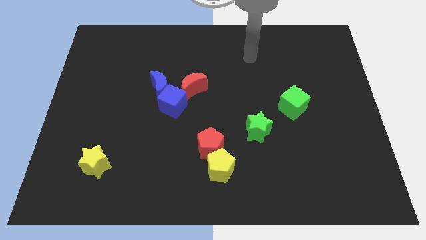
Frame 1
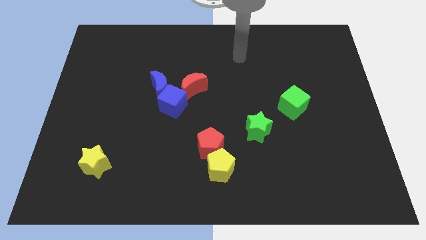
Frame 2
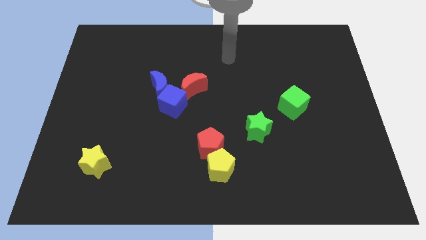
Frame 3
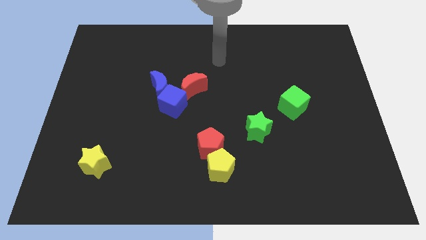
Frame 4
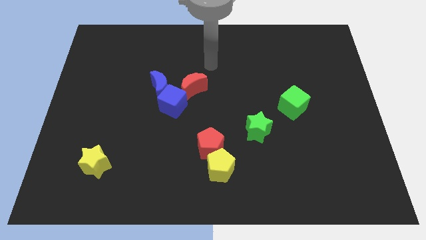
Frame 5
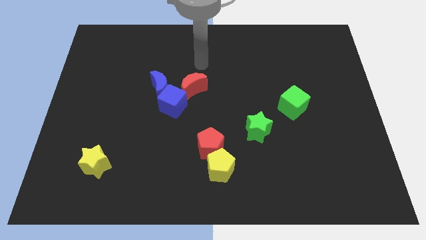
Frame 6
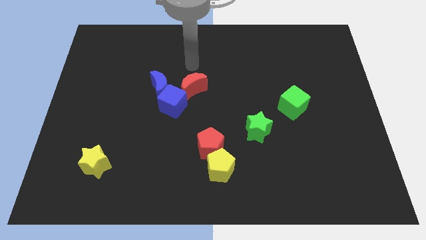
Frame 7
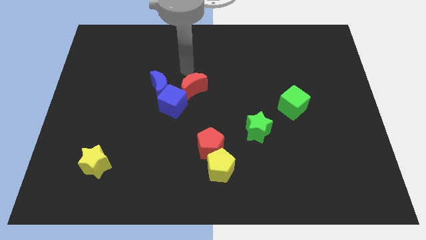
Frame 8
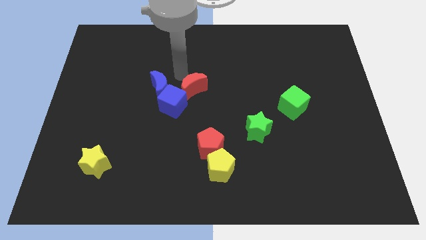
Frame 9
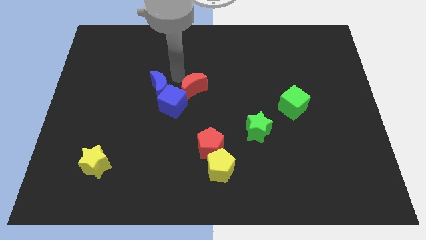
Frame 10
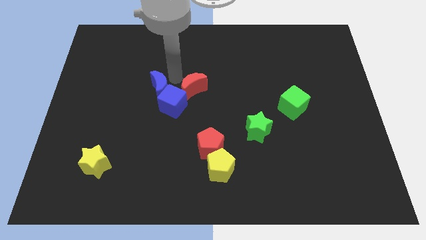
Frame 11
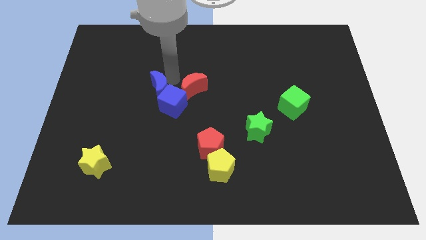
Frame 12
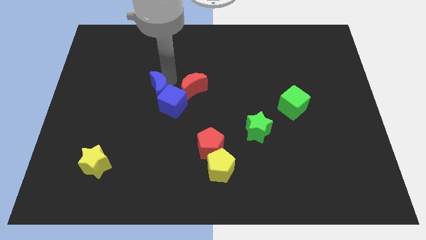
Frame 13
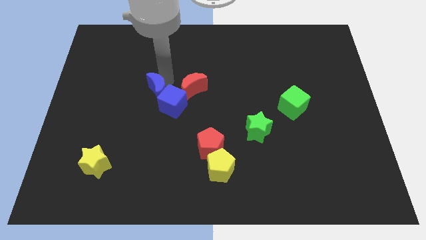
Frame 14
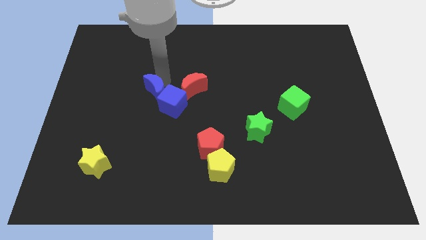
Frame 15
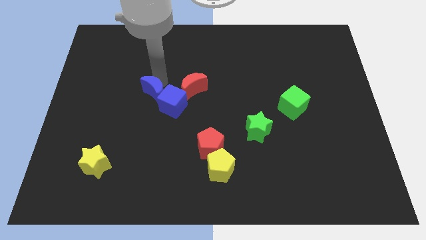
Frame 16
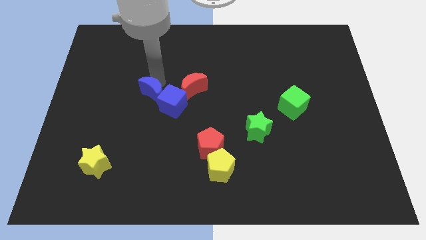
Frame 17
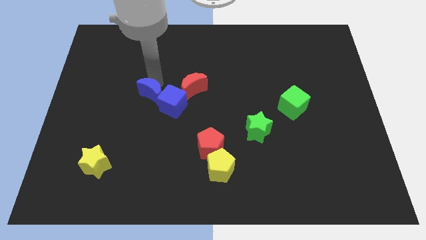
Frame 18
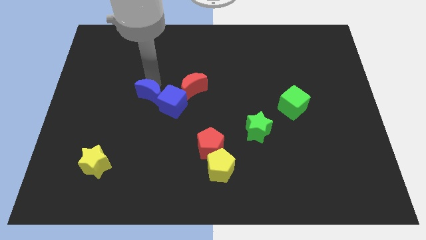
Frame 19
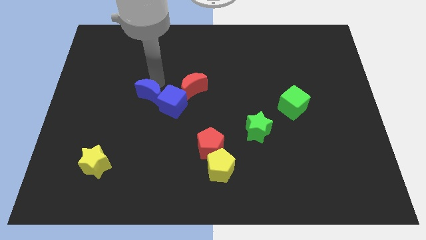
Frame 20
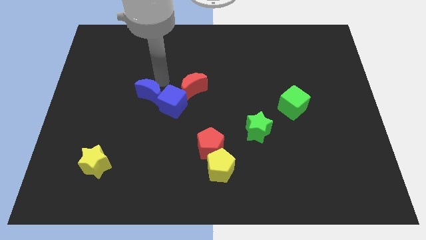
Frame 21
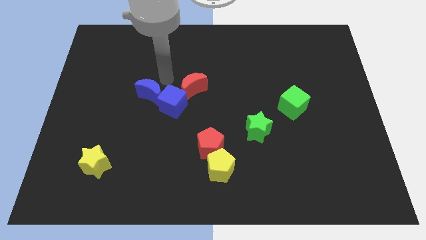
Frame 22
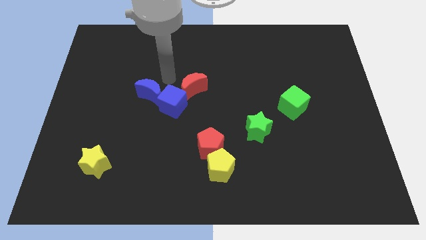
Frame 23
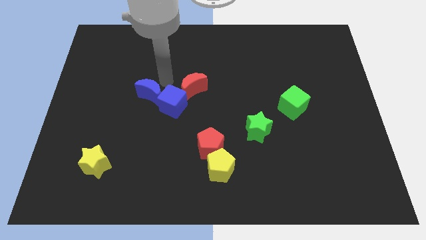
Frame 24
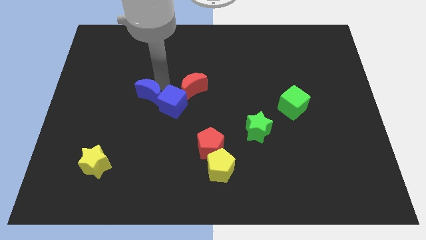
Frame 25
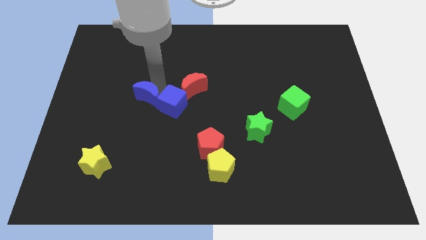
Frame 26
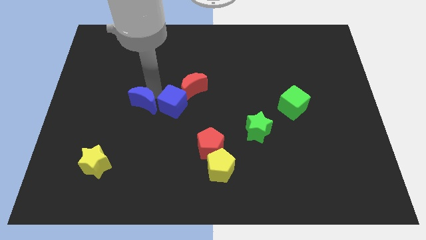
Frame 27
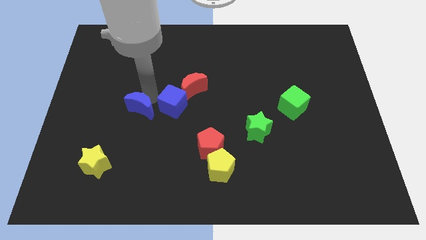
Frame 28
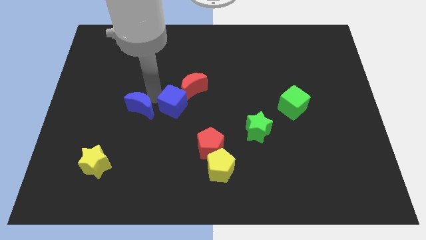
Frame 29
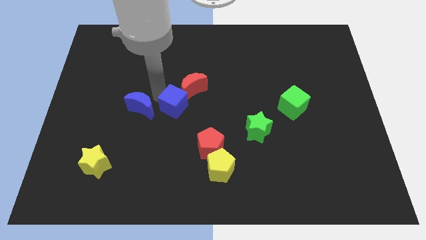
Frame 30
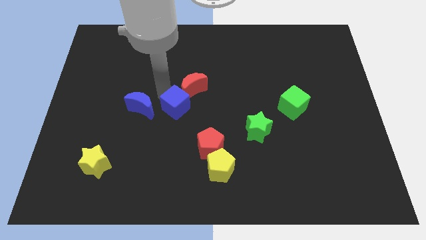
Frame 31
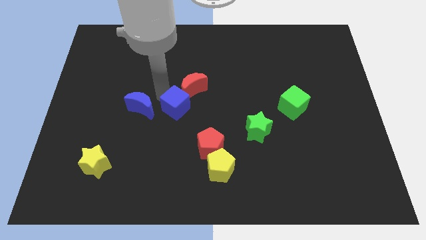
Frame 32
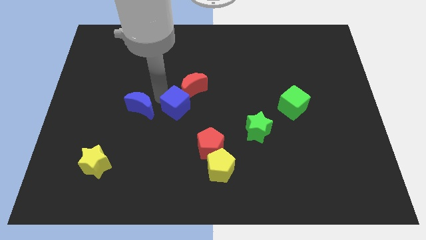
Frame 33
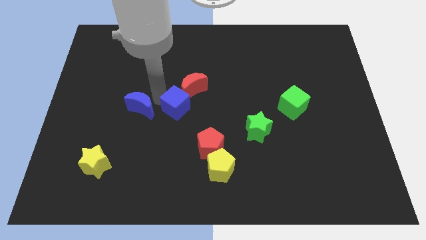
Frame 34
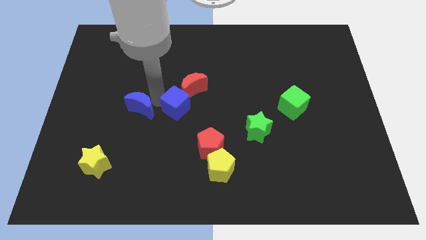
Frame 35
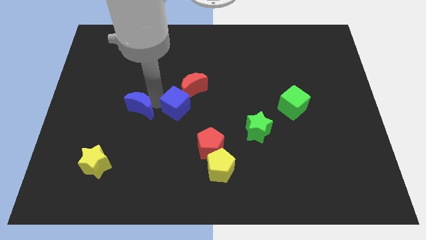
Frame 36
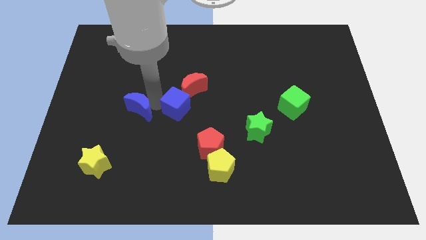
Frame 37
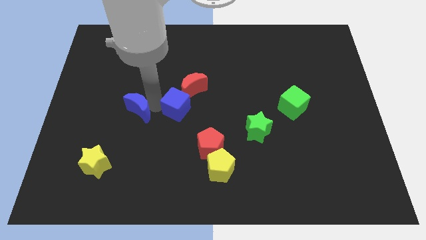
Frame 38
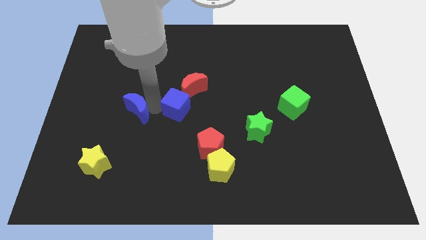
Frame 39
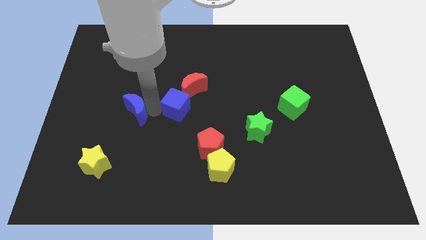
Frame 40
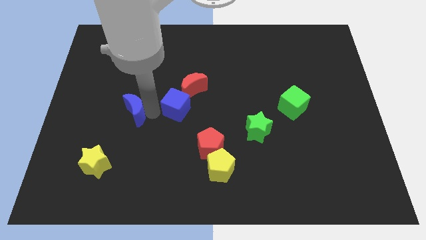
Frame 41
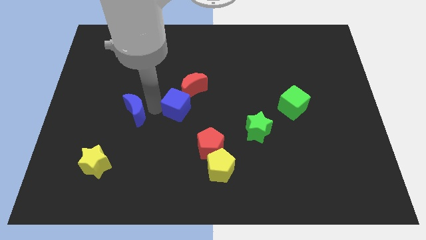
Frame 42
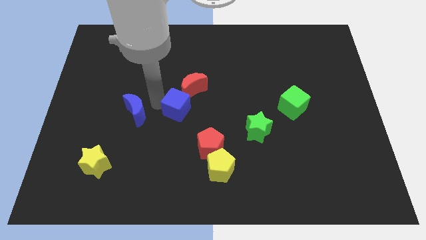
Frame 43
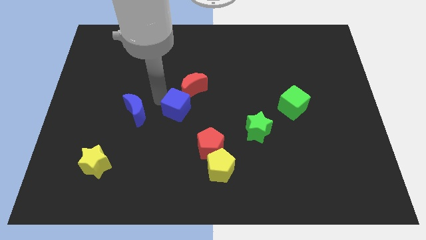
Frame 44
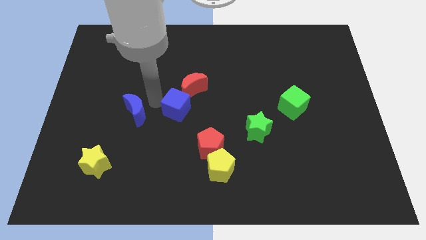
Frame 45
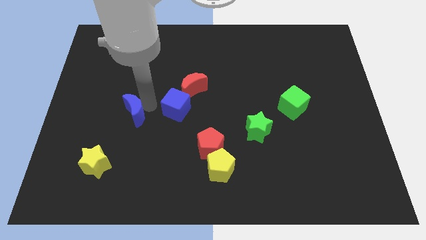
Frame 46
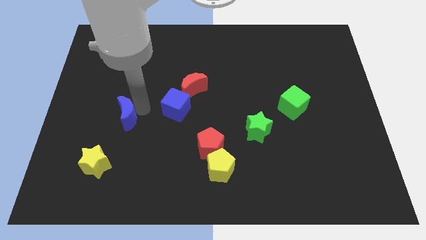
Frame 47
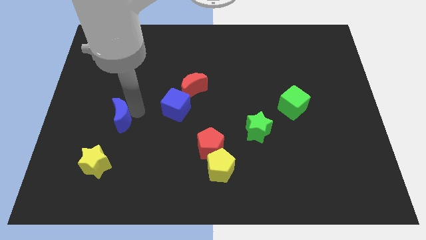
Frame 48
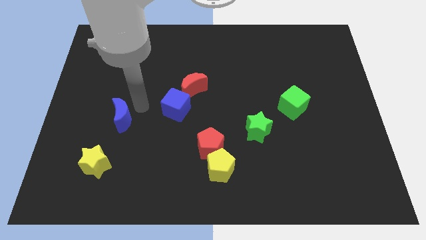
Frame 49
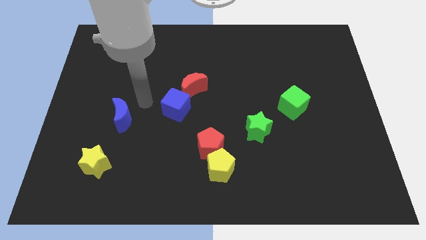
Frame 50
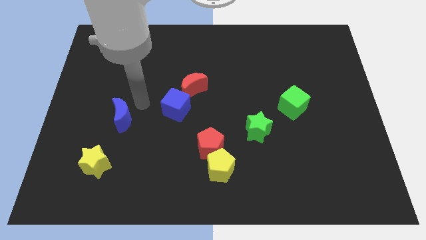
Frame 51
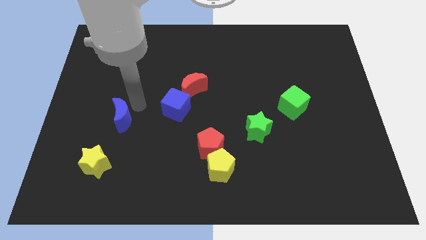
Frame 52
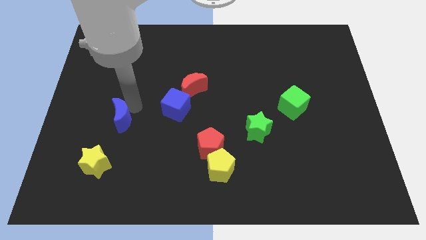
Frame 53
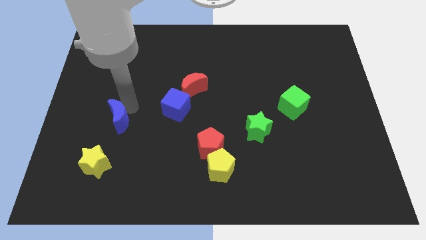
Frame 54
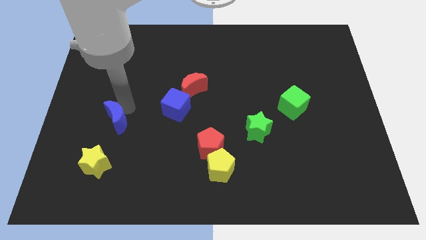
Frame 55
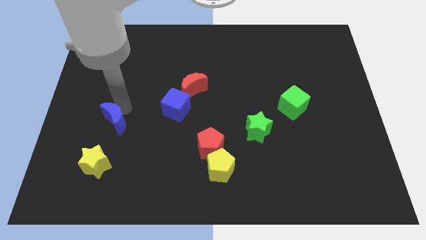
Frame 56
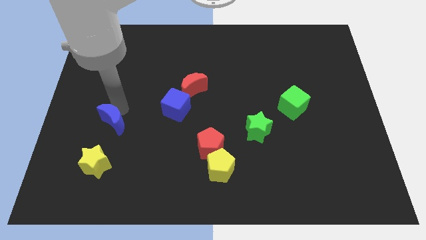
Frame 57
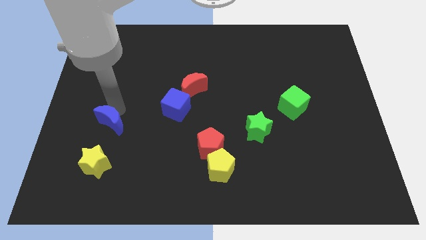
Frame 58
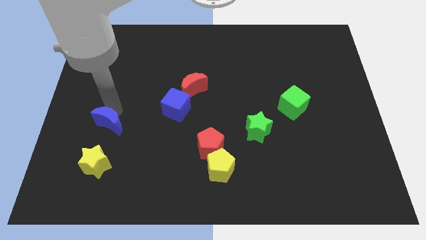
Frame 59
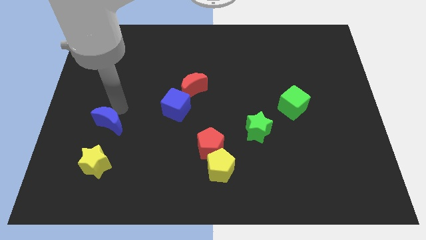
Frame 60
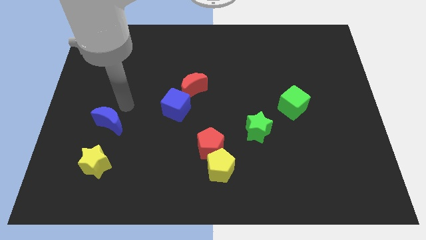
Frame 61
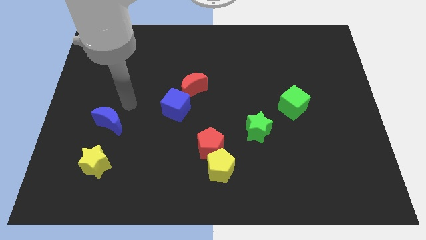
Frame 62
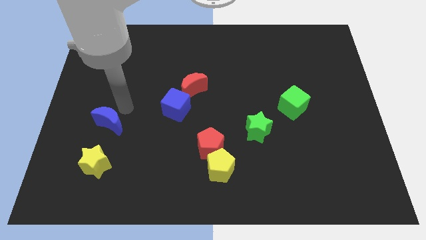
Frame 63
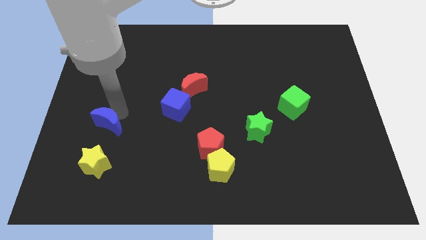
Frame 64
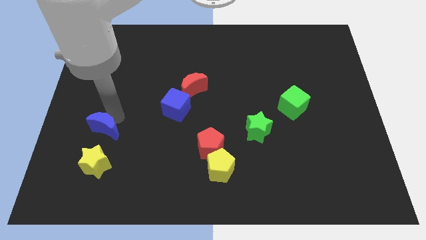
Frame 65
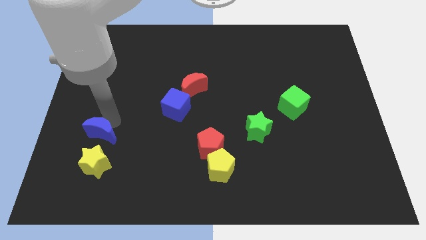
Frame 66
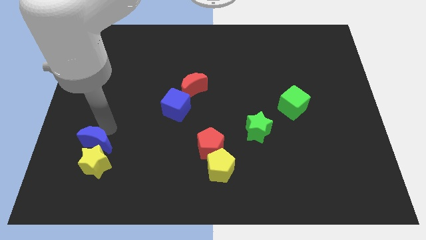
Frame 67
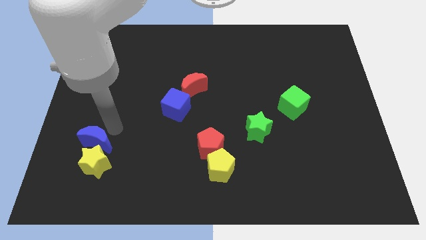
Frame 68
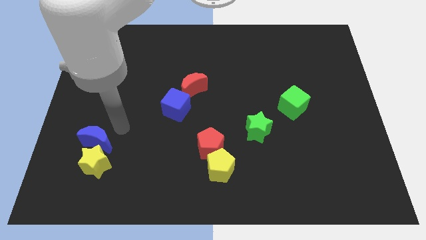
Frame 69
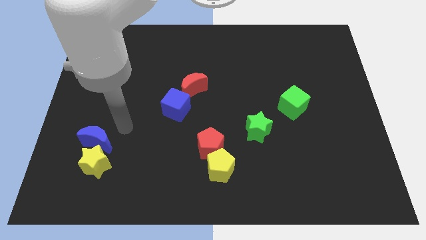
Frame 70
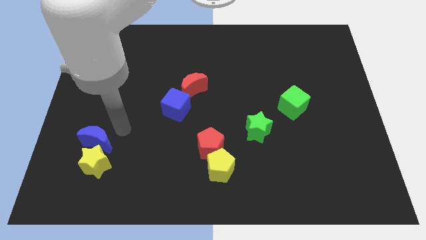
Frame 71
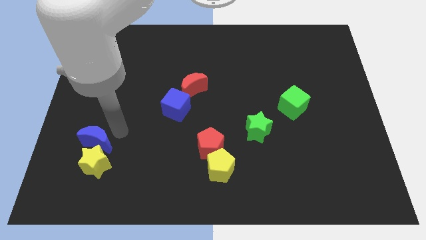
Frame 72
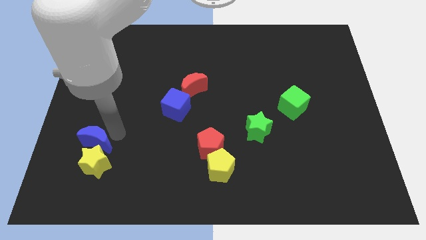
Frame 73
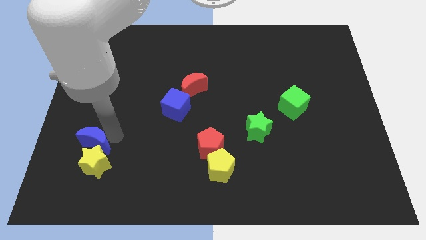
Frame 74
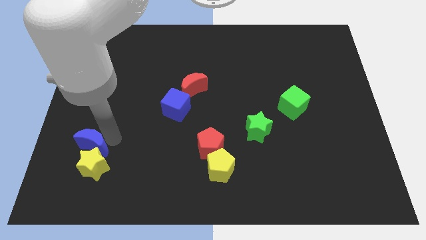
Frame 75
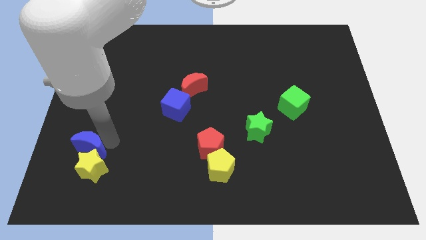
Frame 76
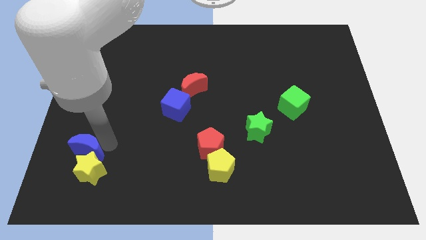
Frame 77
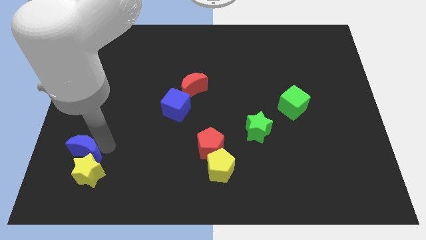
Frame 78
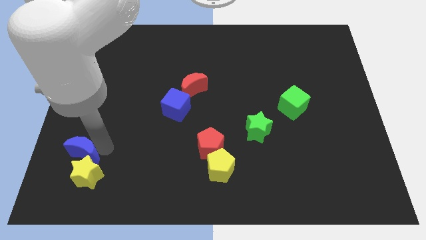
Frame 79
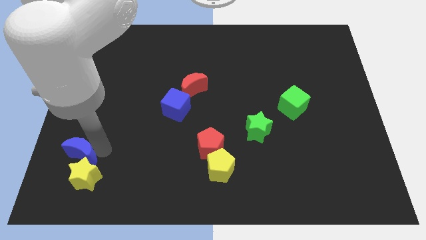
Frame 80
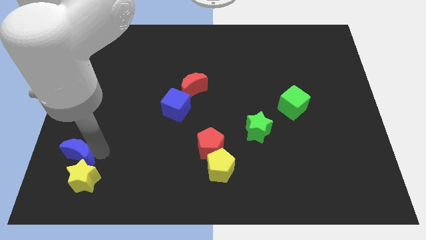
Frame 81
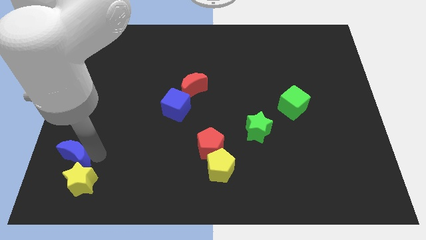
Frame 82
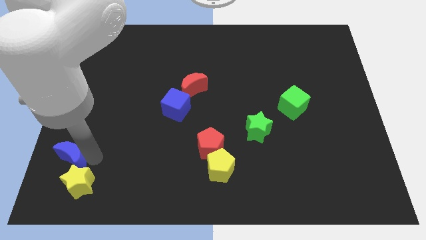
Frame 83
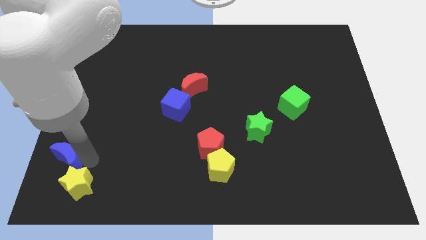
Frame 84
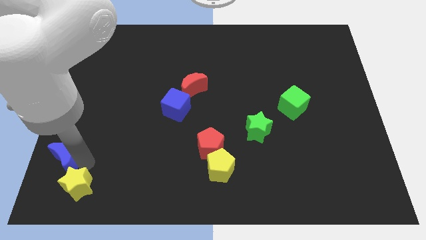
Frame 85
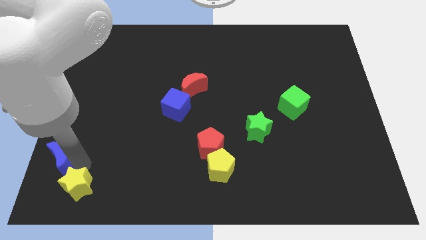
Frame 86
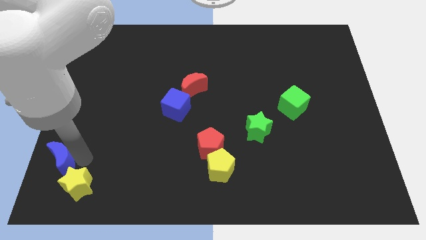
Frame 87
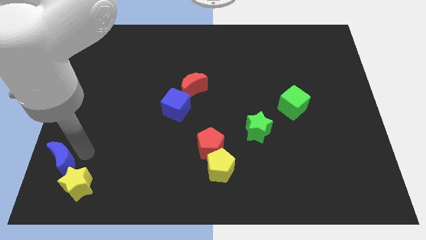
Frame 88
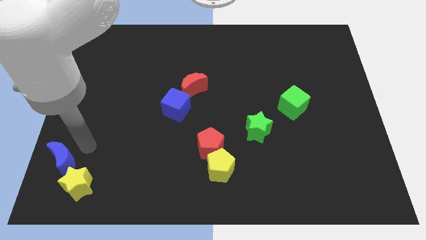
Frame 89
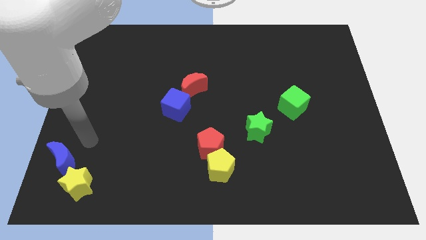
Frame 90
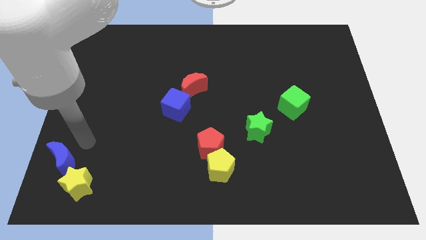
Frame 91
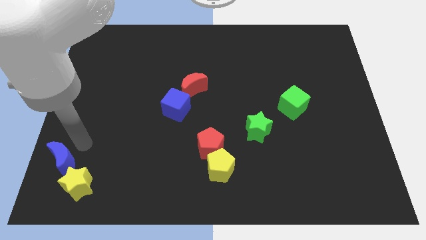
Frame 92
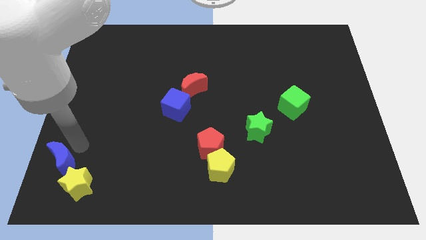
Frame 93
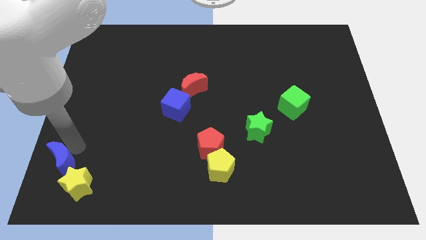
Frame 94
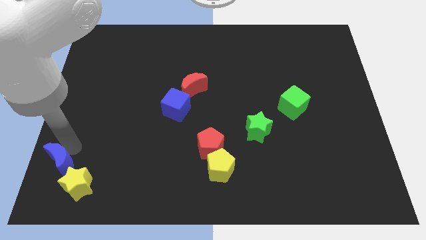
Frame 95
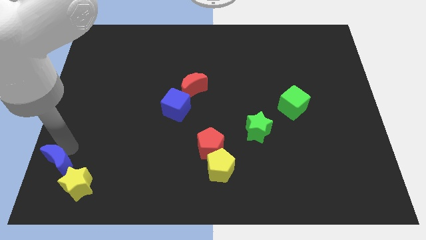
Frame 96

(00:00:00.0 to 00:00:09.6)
push the blue moon to the bottom left
